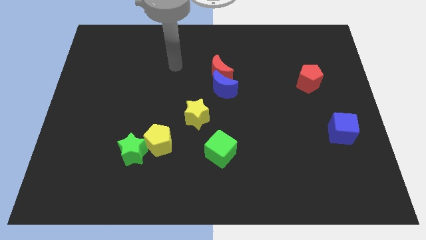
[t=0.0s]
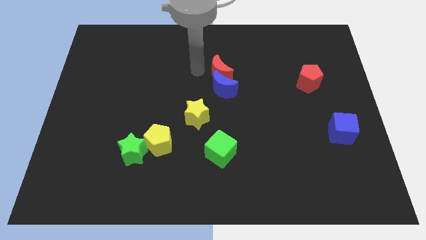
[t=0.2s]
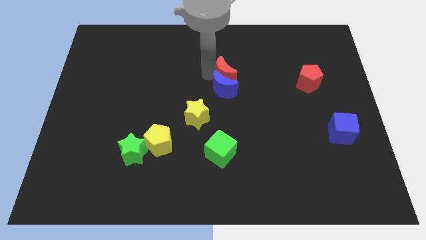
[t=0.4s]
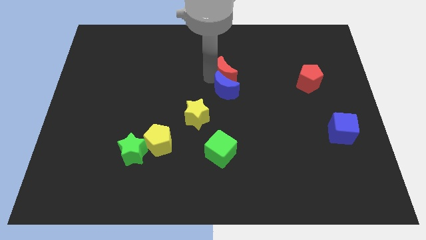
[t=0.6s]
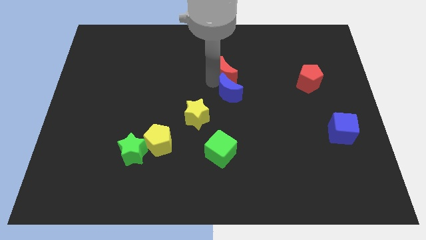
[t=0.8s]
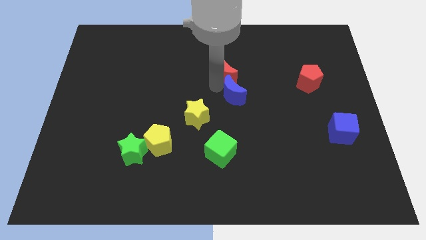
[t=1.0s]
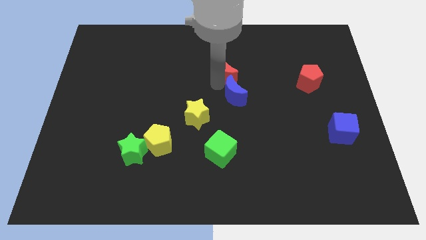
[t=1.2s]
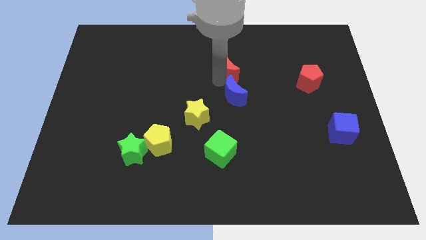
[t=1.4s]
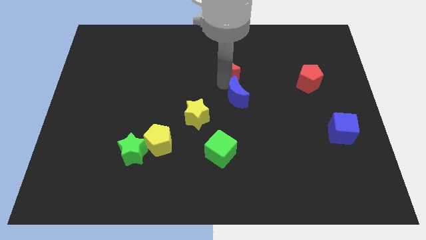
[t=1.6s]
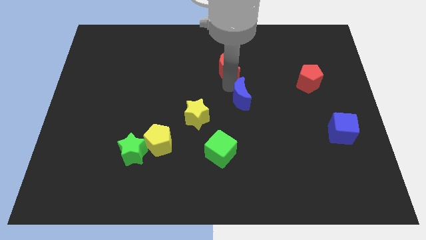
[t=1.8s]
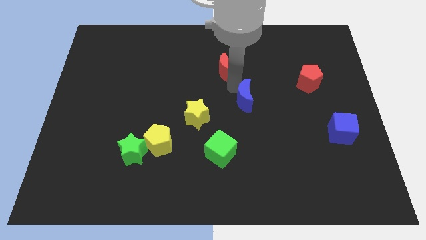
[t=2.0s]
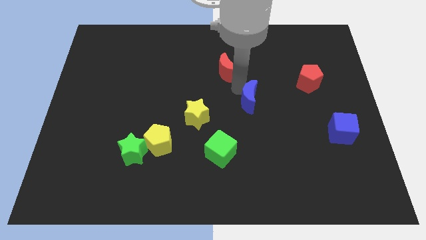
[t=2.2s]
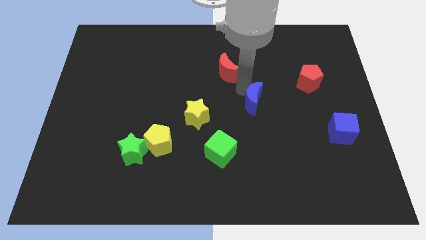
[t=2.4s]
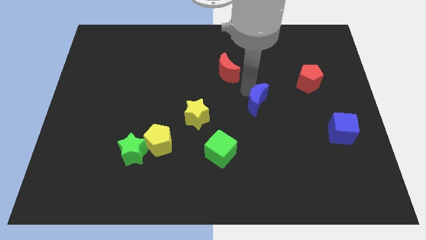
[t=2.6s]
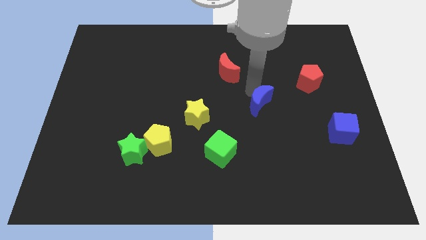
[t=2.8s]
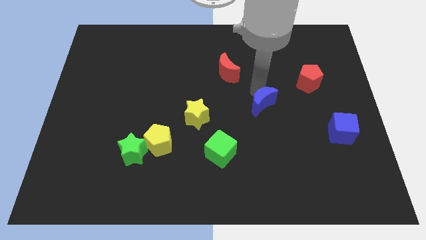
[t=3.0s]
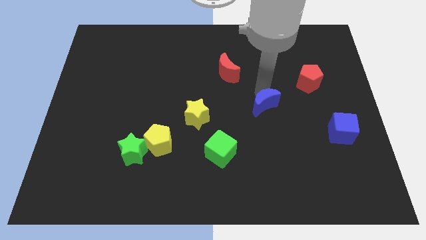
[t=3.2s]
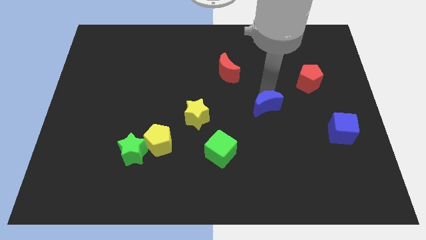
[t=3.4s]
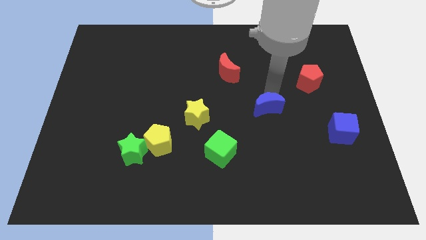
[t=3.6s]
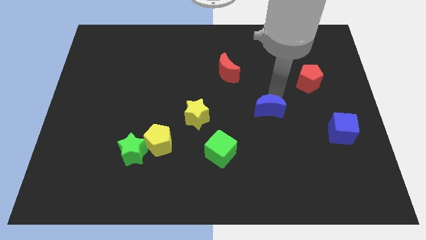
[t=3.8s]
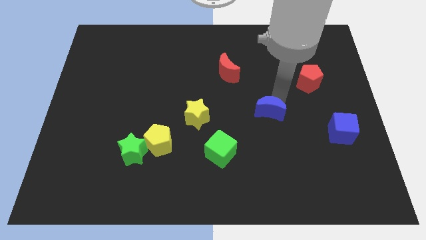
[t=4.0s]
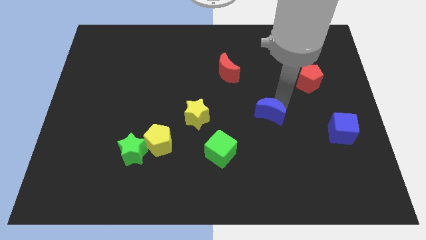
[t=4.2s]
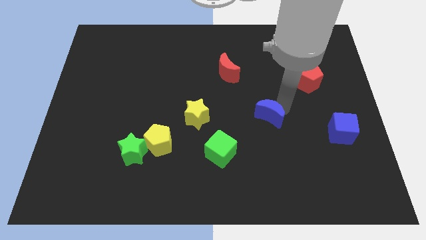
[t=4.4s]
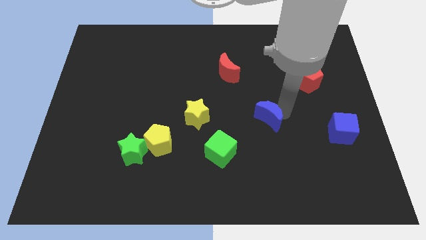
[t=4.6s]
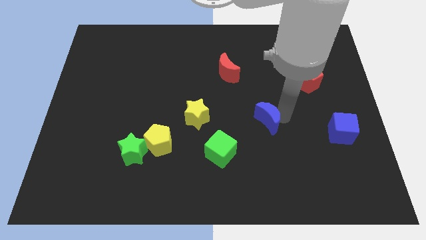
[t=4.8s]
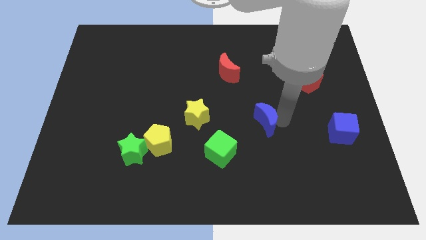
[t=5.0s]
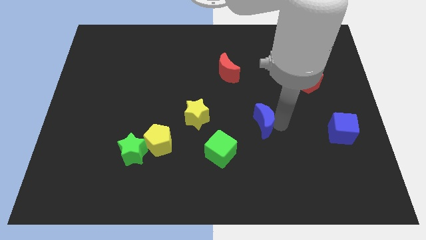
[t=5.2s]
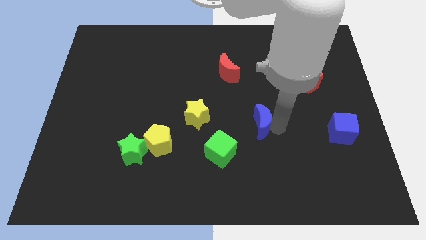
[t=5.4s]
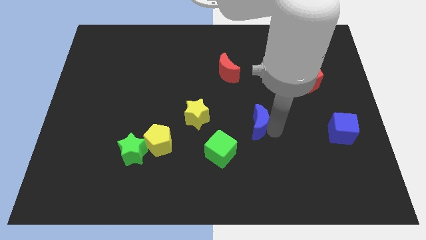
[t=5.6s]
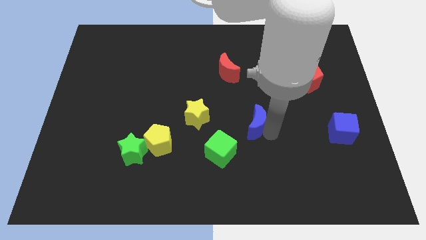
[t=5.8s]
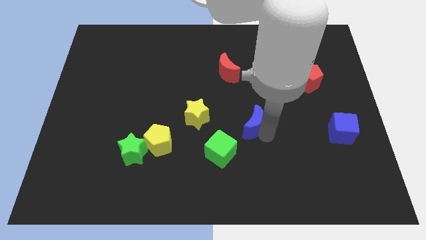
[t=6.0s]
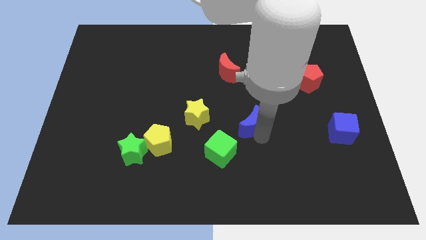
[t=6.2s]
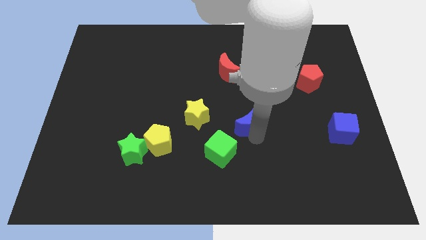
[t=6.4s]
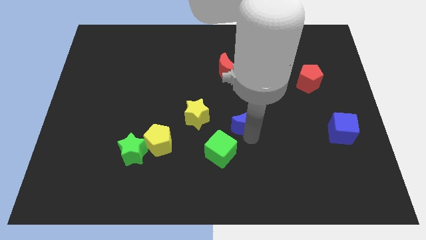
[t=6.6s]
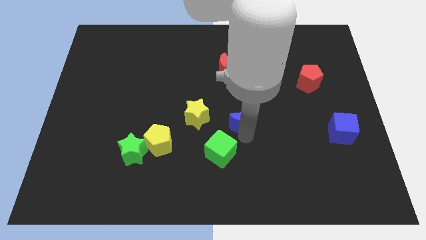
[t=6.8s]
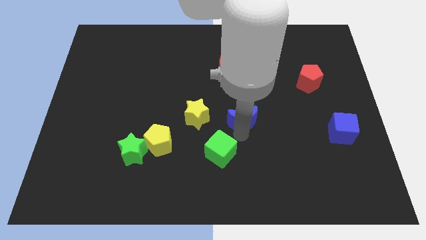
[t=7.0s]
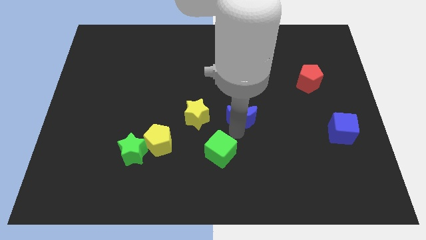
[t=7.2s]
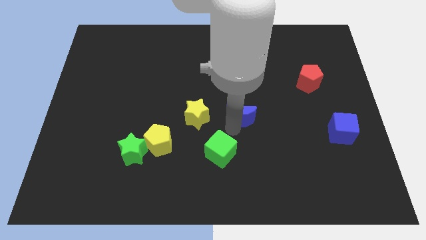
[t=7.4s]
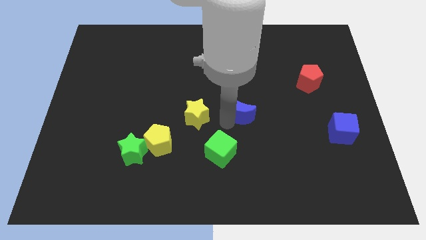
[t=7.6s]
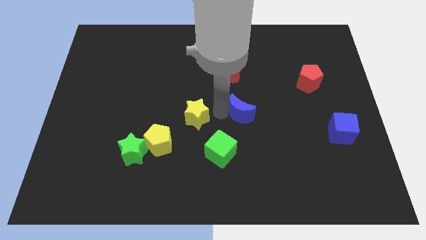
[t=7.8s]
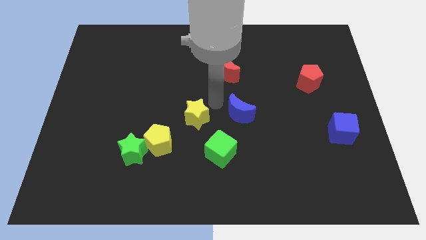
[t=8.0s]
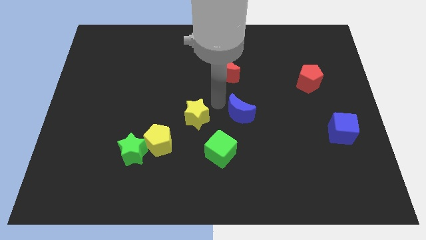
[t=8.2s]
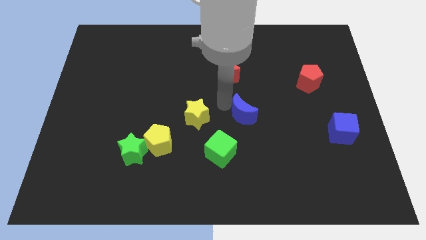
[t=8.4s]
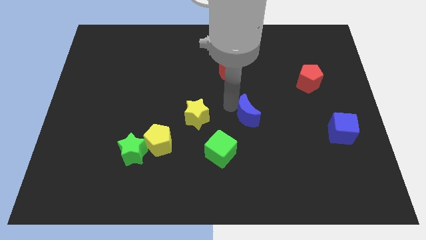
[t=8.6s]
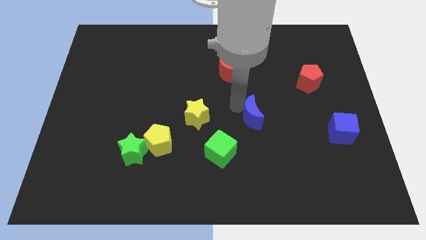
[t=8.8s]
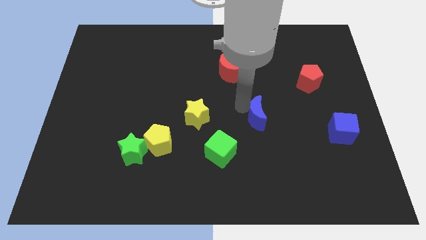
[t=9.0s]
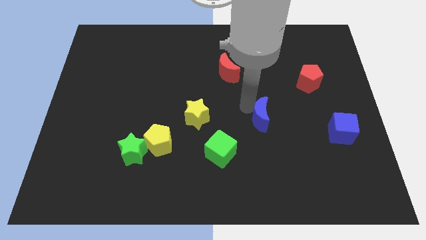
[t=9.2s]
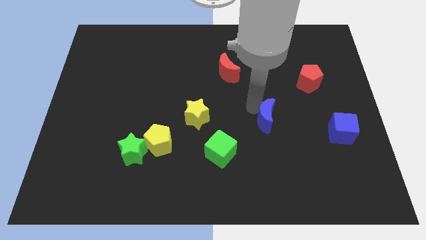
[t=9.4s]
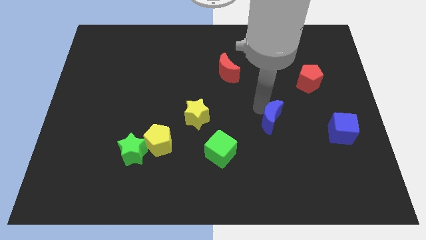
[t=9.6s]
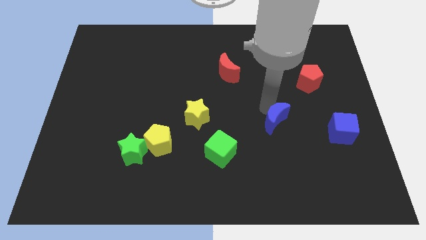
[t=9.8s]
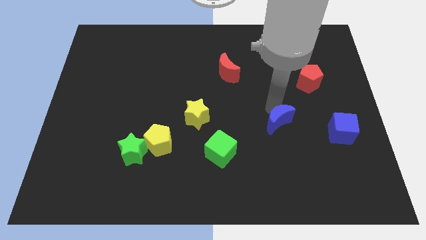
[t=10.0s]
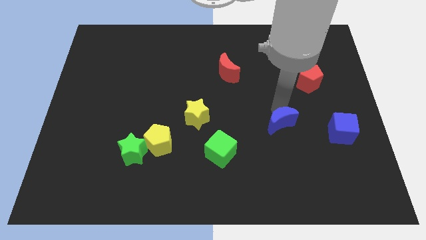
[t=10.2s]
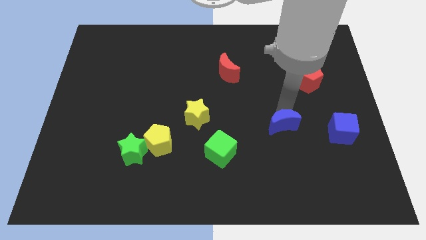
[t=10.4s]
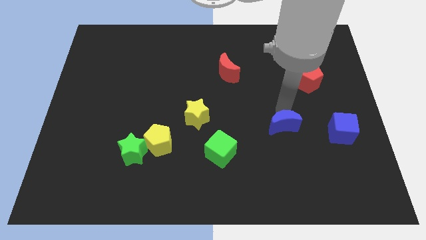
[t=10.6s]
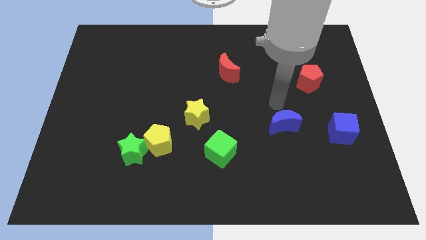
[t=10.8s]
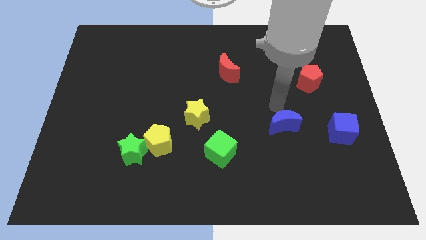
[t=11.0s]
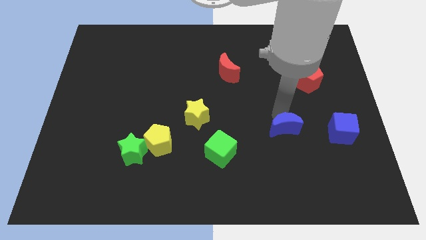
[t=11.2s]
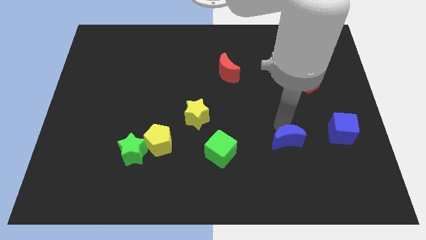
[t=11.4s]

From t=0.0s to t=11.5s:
push the blue moon diagonally down and to the right

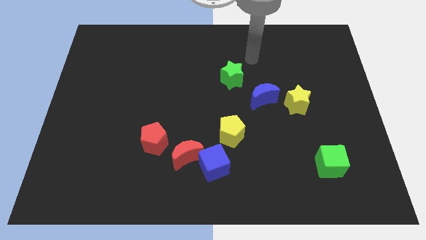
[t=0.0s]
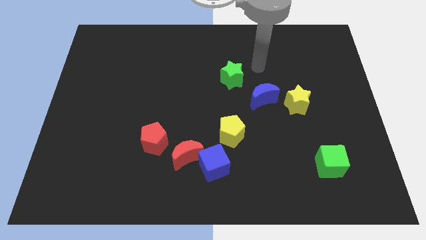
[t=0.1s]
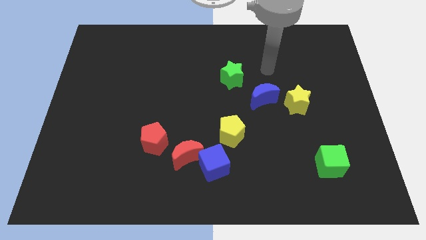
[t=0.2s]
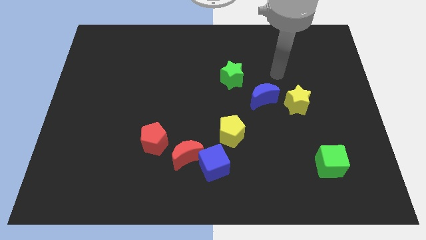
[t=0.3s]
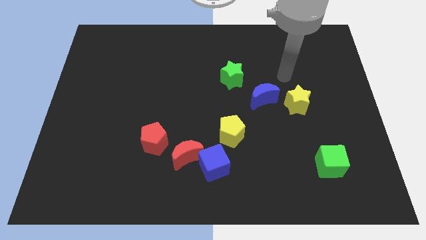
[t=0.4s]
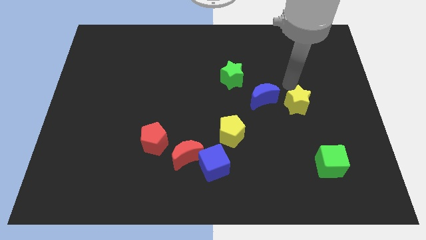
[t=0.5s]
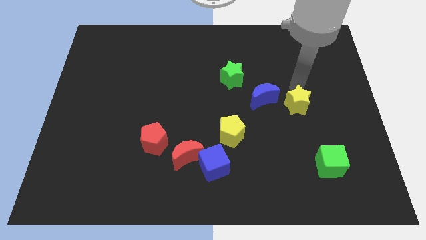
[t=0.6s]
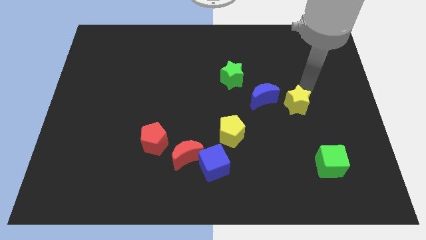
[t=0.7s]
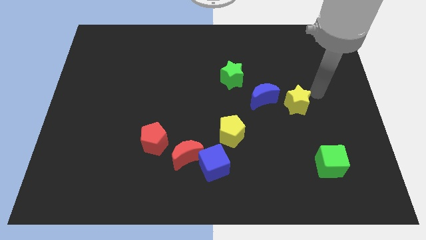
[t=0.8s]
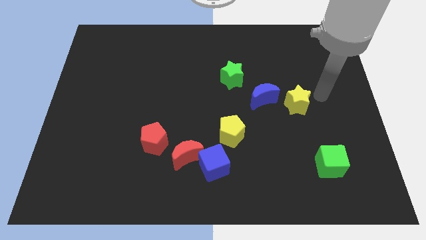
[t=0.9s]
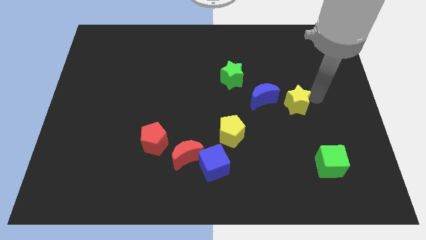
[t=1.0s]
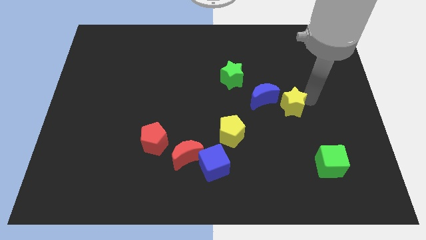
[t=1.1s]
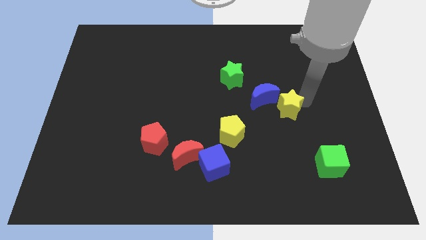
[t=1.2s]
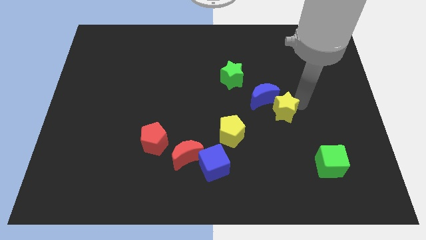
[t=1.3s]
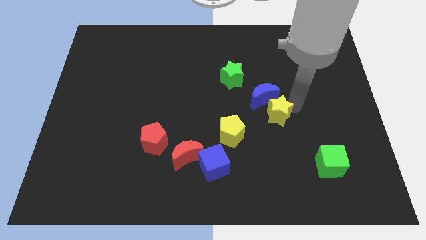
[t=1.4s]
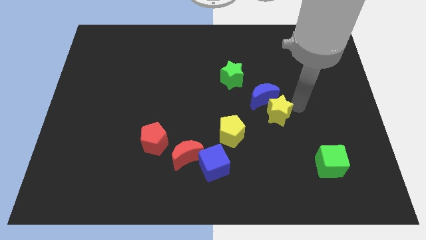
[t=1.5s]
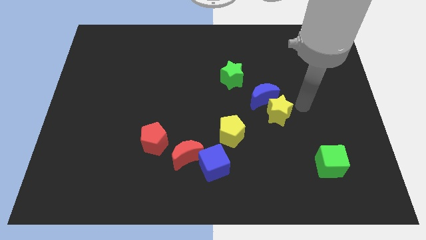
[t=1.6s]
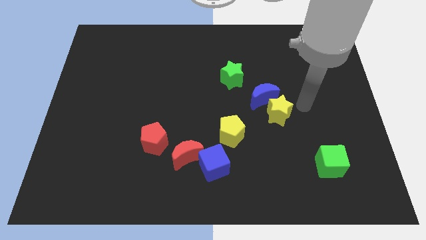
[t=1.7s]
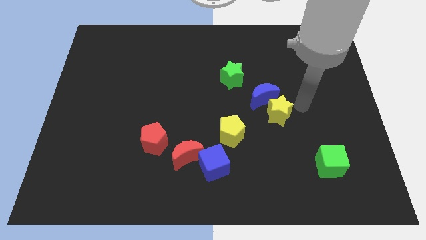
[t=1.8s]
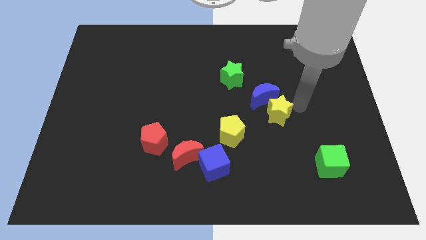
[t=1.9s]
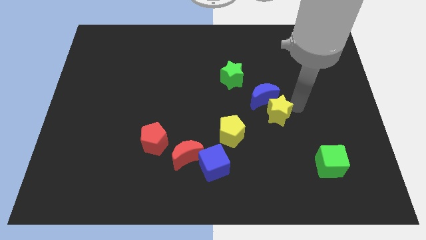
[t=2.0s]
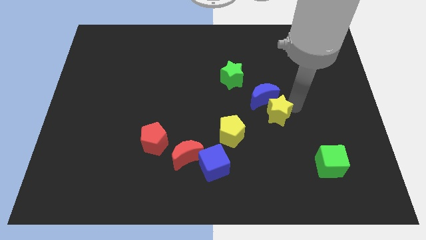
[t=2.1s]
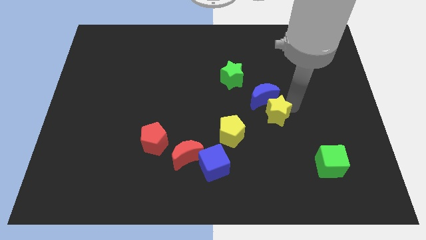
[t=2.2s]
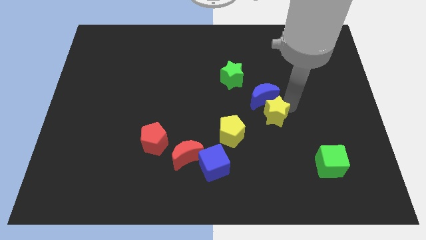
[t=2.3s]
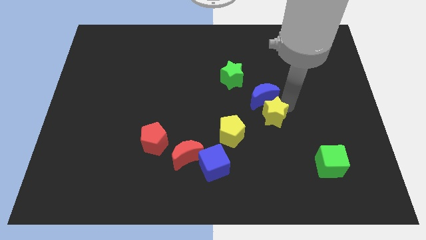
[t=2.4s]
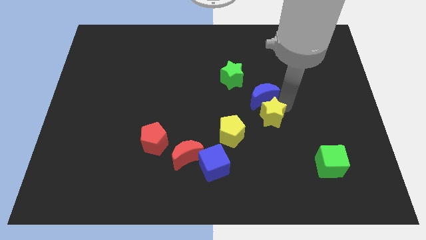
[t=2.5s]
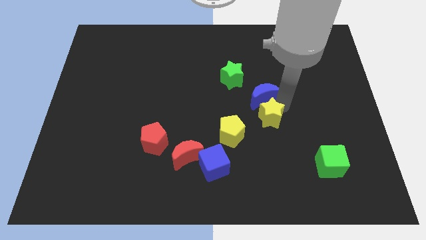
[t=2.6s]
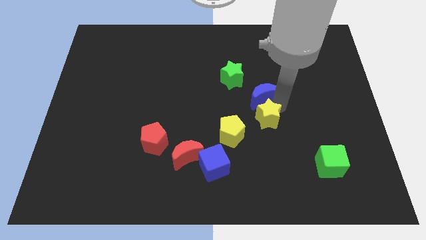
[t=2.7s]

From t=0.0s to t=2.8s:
slightly push the yellow star to the left
